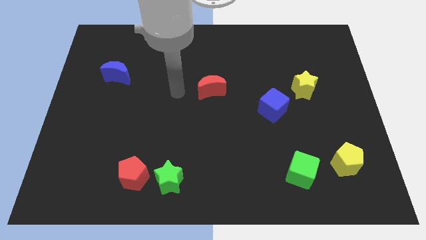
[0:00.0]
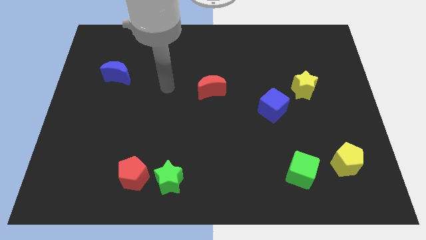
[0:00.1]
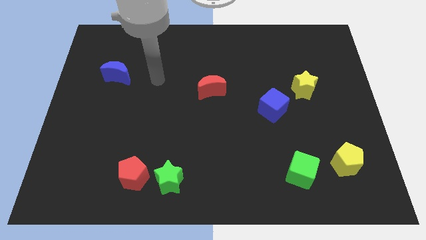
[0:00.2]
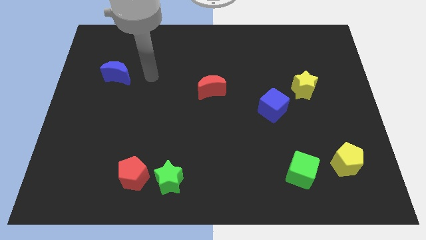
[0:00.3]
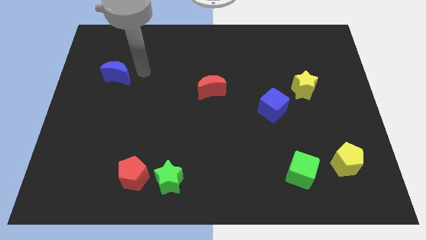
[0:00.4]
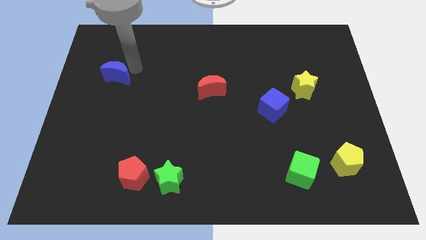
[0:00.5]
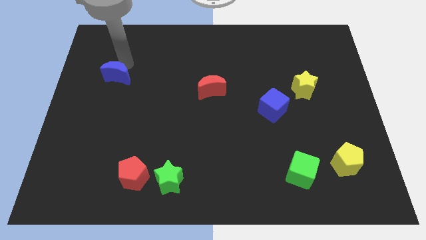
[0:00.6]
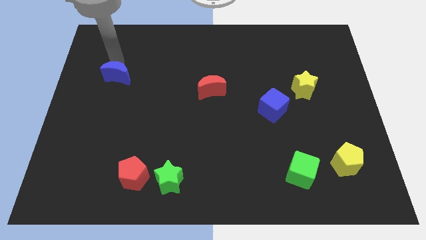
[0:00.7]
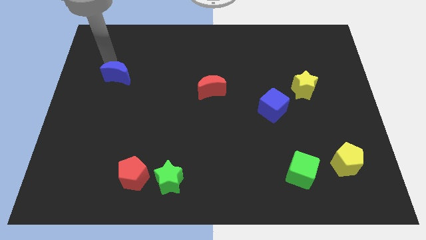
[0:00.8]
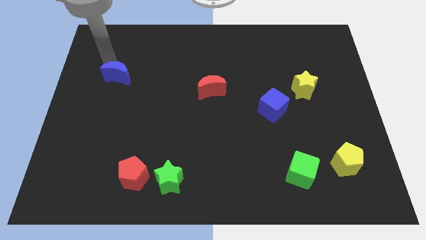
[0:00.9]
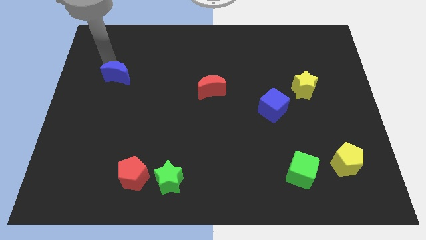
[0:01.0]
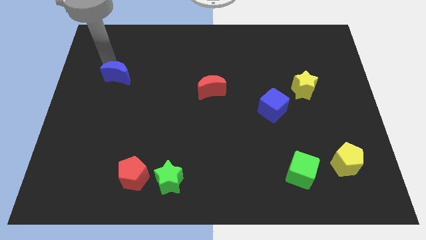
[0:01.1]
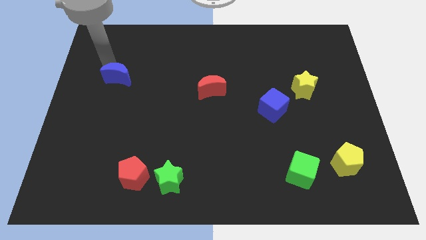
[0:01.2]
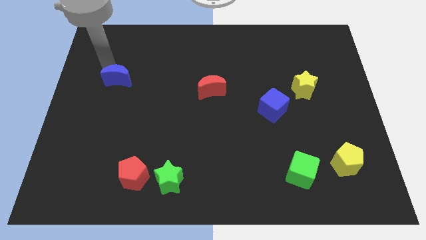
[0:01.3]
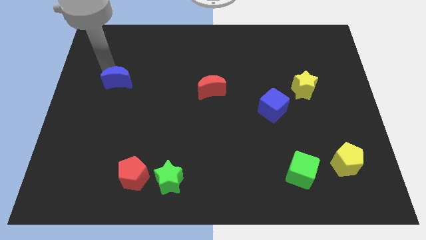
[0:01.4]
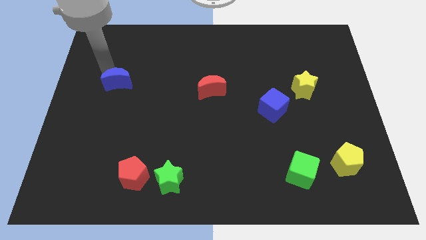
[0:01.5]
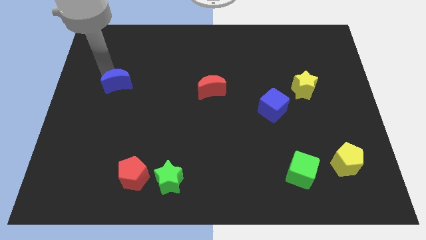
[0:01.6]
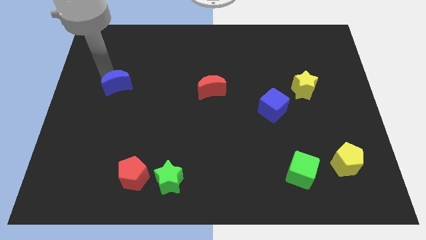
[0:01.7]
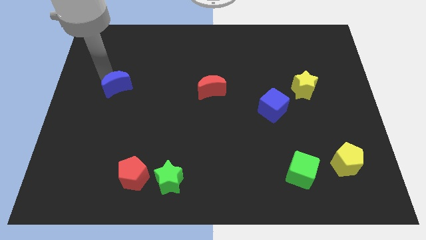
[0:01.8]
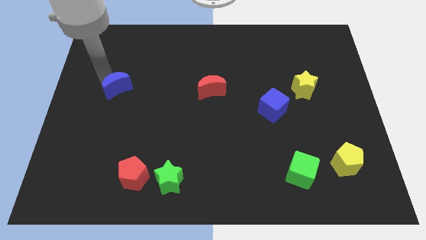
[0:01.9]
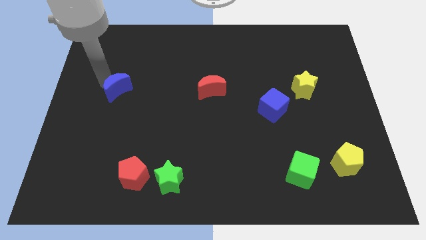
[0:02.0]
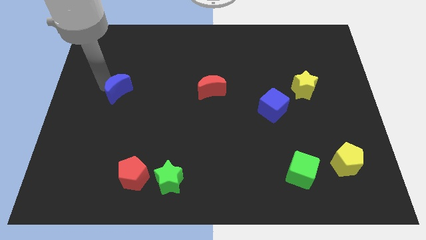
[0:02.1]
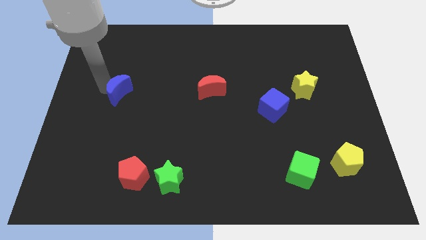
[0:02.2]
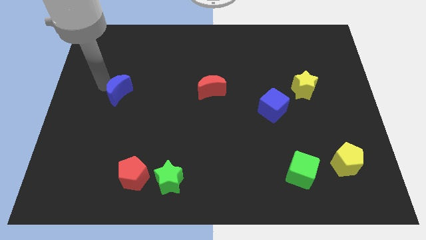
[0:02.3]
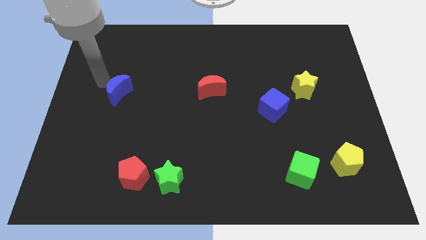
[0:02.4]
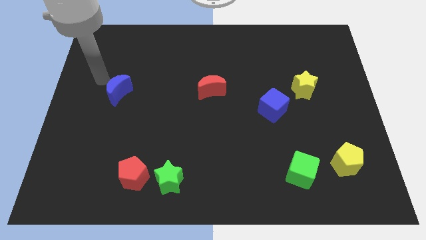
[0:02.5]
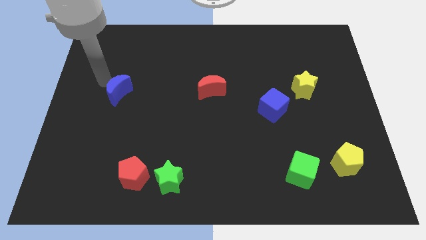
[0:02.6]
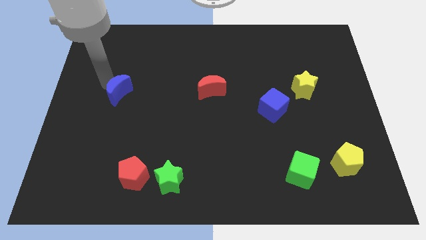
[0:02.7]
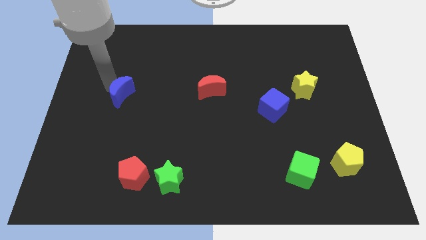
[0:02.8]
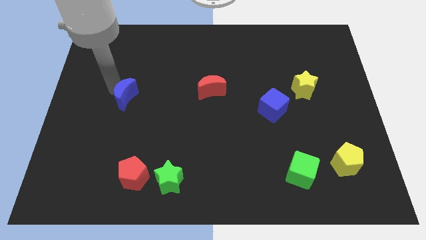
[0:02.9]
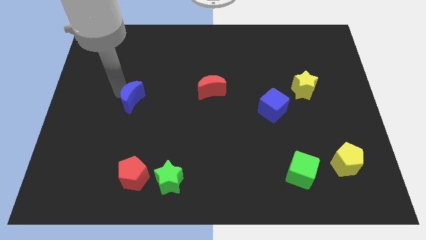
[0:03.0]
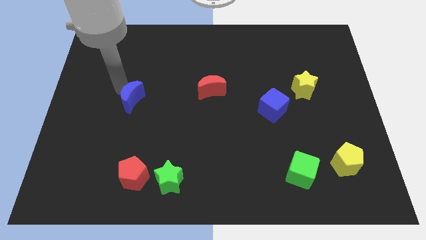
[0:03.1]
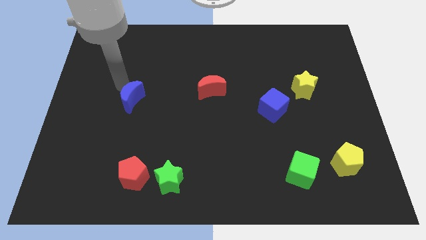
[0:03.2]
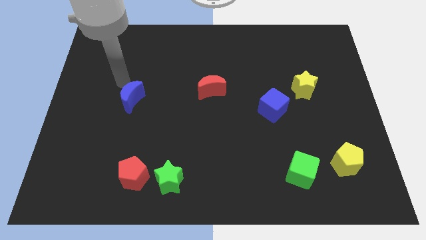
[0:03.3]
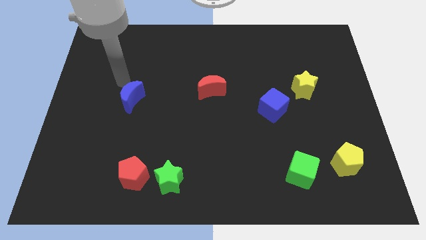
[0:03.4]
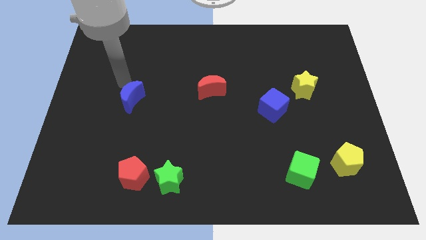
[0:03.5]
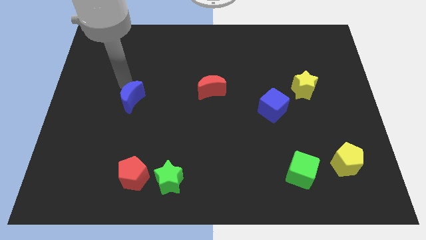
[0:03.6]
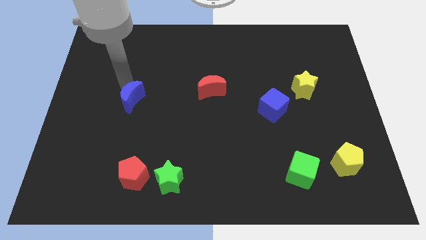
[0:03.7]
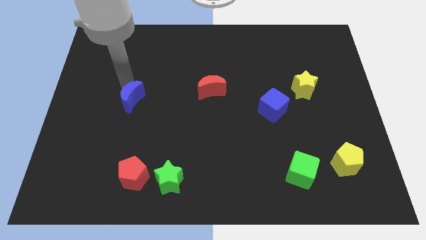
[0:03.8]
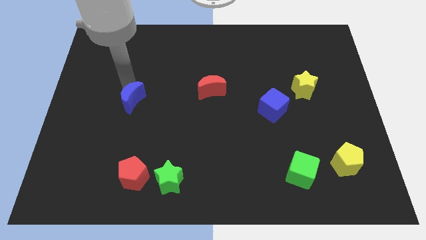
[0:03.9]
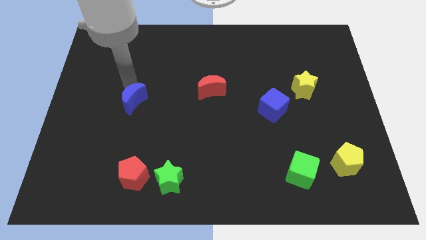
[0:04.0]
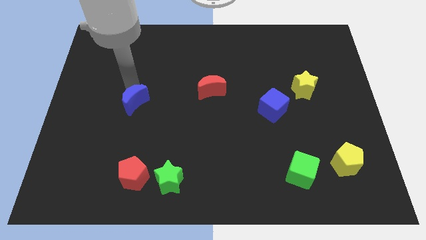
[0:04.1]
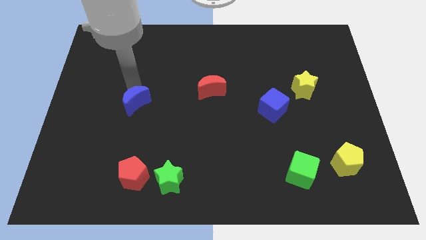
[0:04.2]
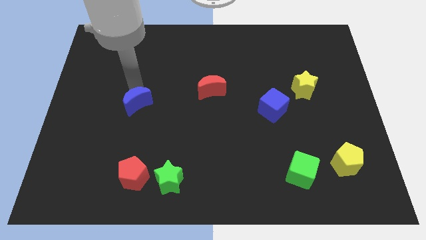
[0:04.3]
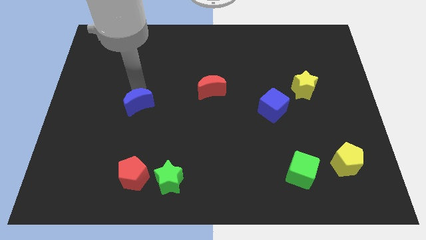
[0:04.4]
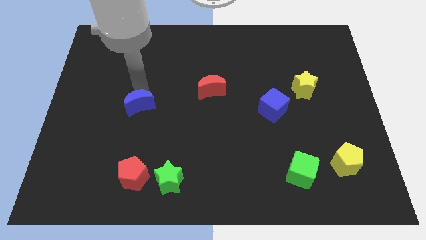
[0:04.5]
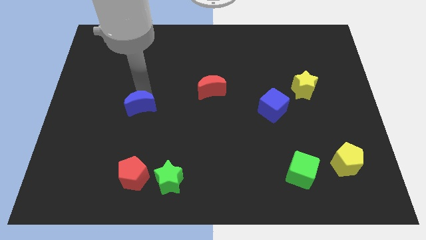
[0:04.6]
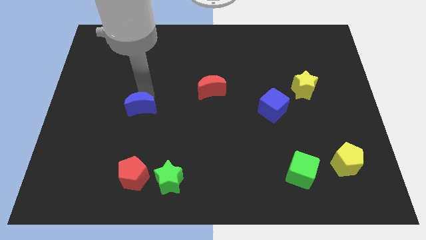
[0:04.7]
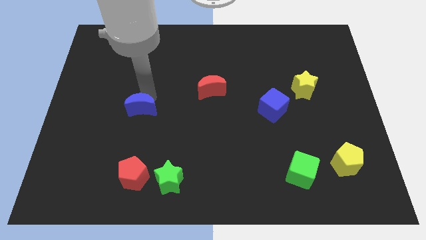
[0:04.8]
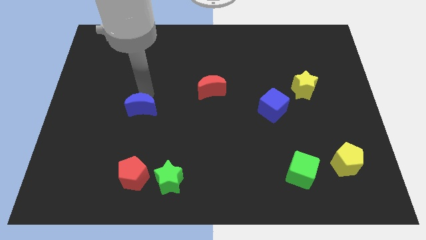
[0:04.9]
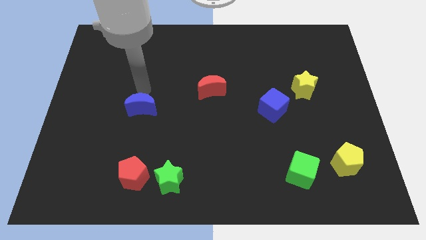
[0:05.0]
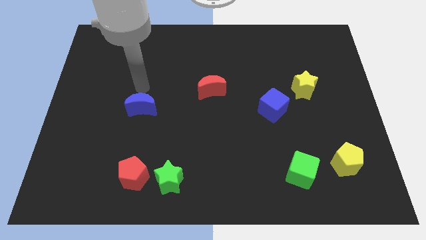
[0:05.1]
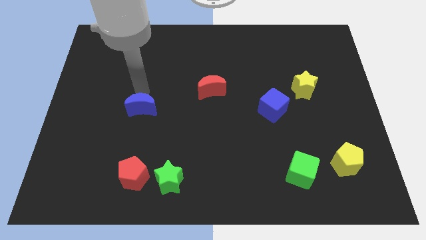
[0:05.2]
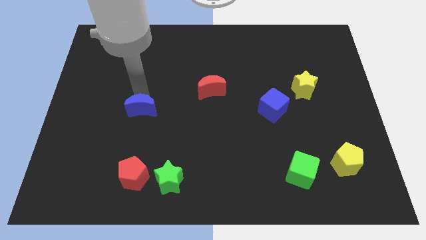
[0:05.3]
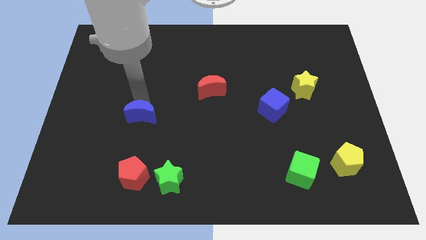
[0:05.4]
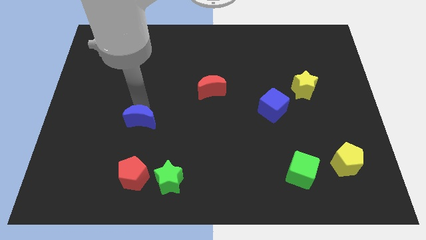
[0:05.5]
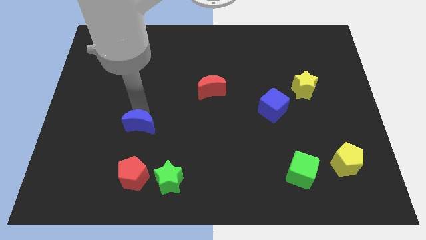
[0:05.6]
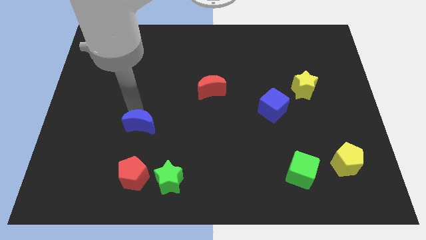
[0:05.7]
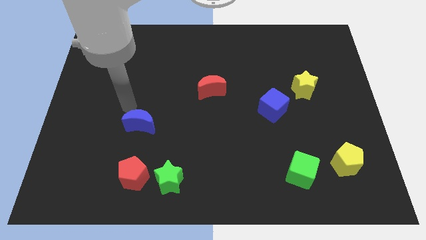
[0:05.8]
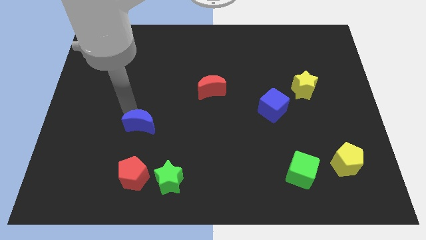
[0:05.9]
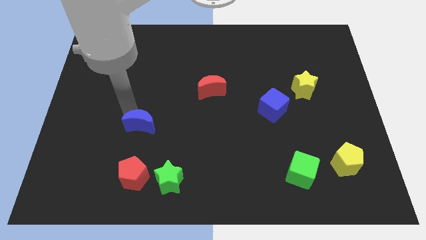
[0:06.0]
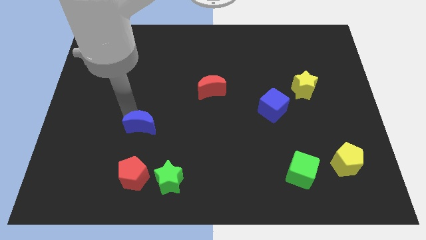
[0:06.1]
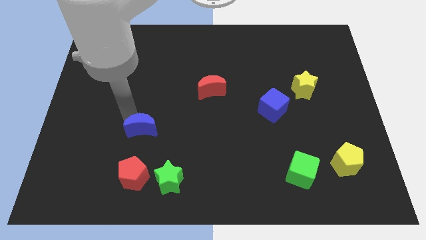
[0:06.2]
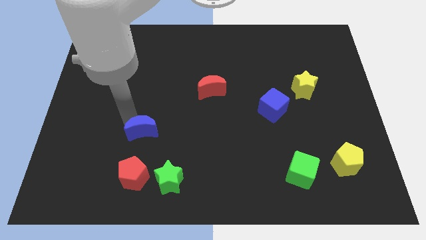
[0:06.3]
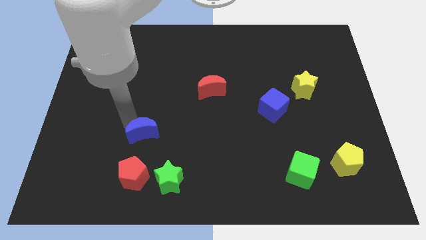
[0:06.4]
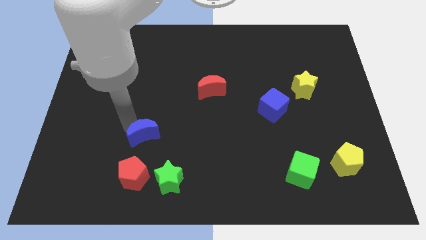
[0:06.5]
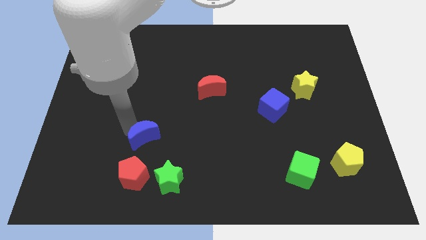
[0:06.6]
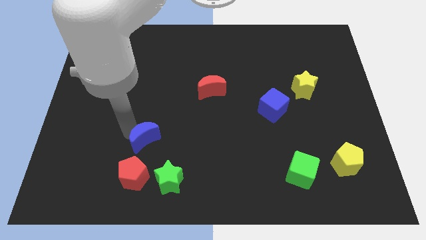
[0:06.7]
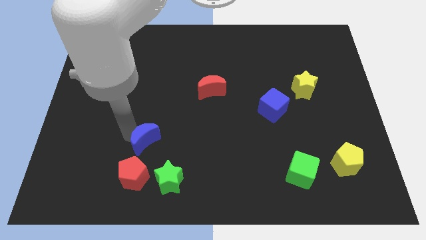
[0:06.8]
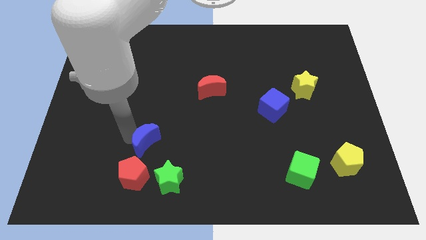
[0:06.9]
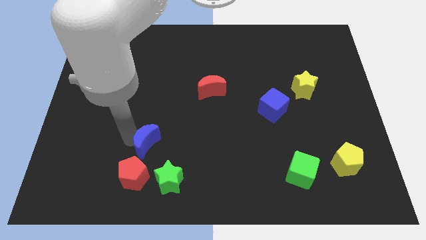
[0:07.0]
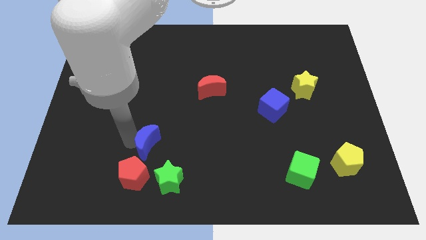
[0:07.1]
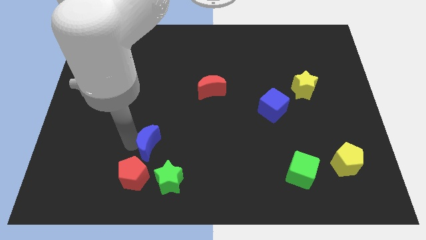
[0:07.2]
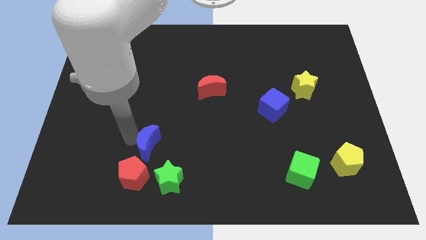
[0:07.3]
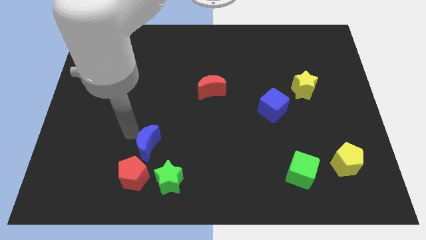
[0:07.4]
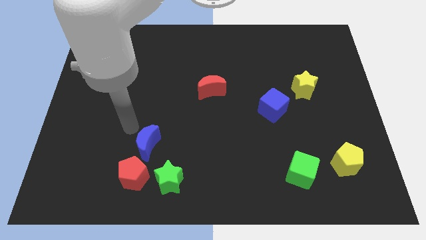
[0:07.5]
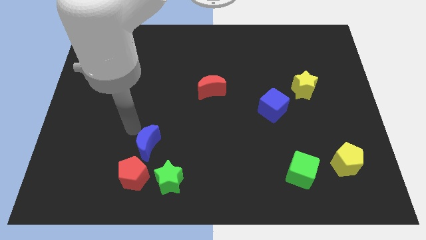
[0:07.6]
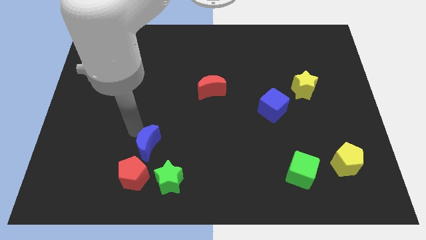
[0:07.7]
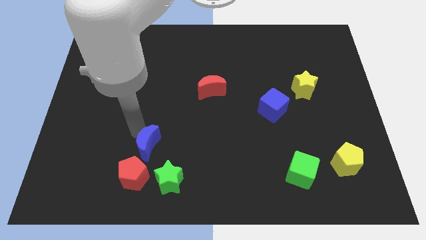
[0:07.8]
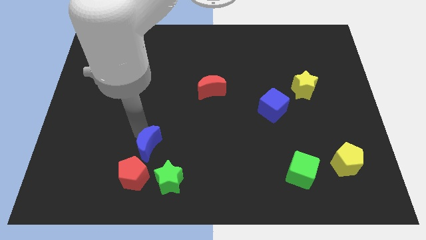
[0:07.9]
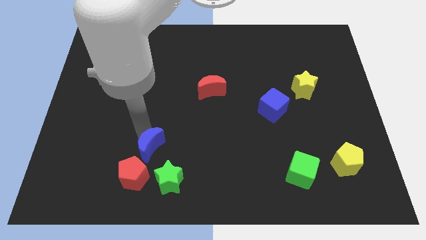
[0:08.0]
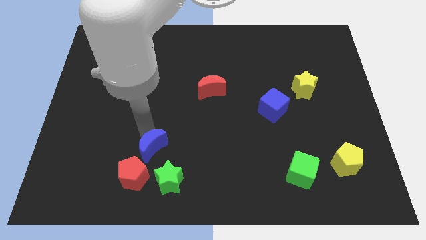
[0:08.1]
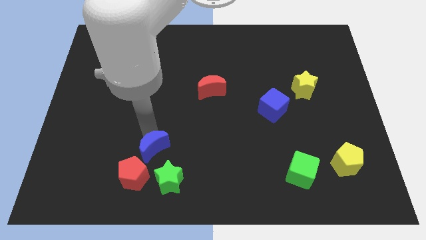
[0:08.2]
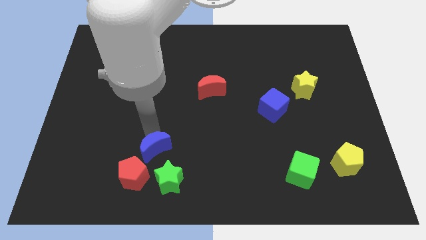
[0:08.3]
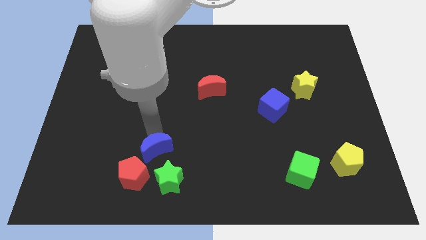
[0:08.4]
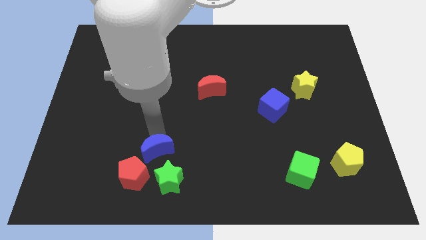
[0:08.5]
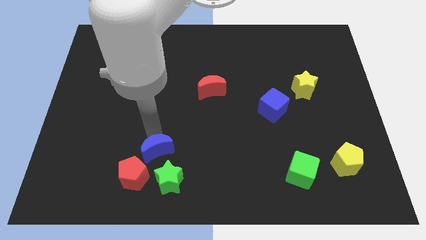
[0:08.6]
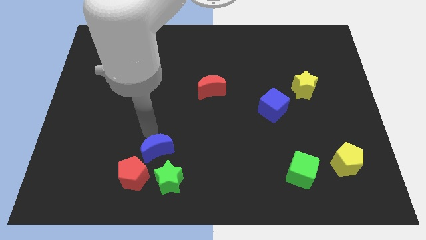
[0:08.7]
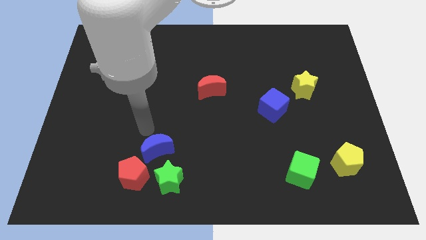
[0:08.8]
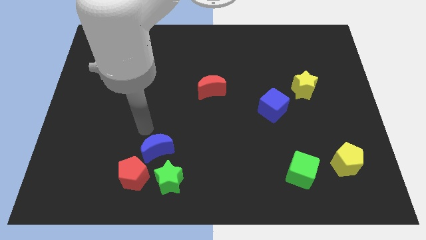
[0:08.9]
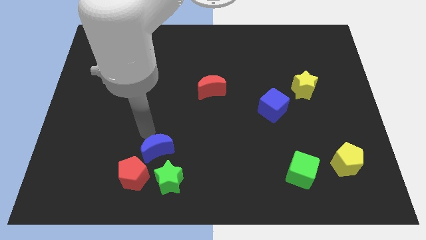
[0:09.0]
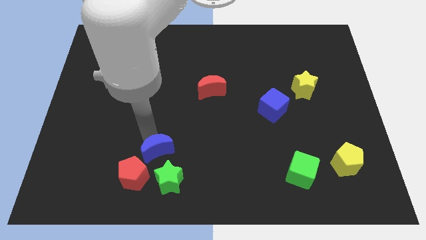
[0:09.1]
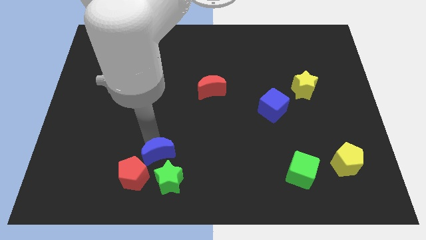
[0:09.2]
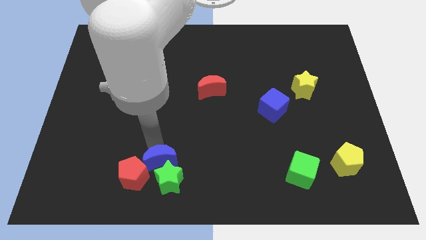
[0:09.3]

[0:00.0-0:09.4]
move the blue moon next to the green star
